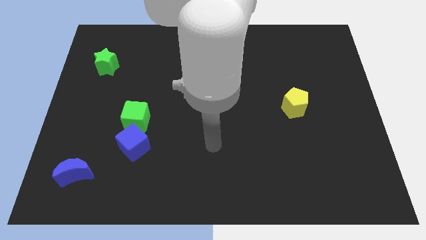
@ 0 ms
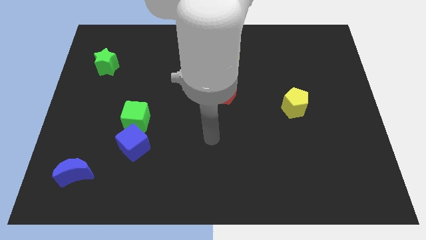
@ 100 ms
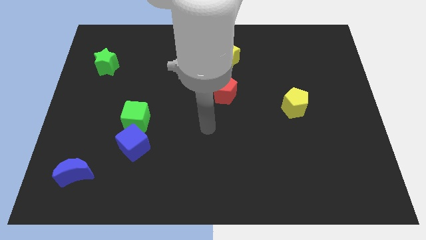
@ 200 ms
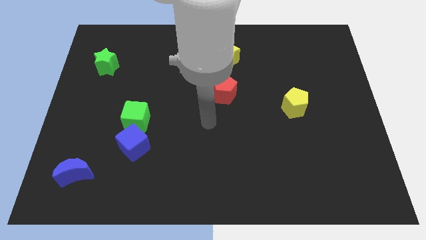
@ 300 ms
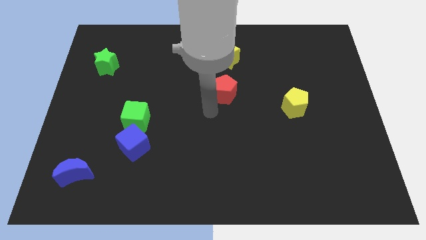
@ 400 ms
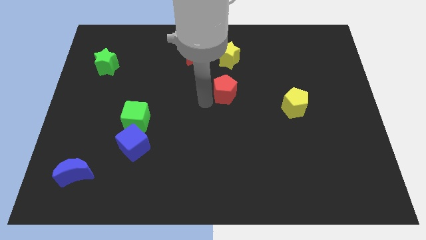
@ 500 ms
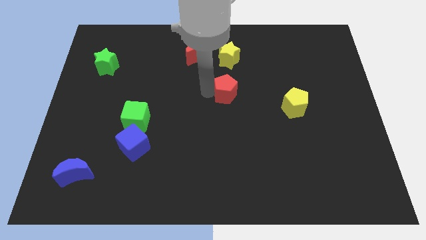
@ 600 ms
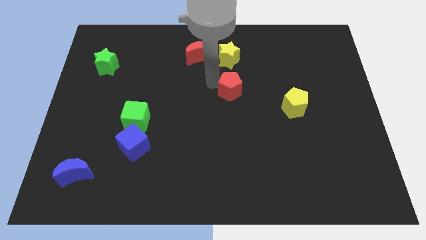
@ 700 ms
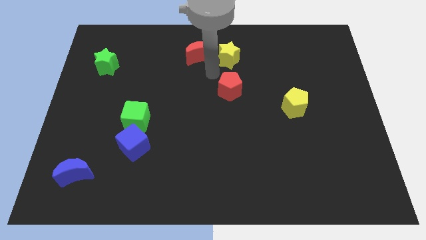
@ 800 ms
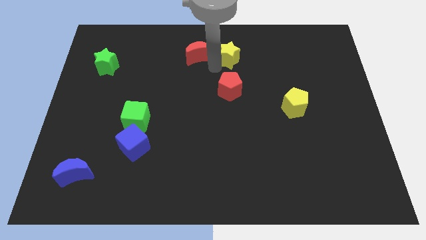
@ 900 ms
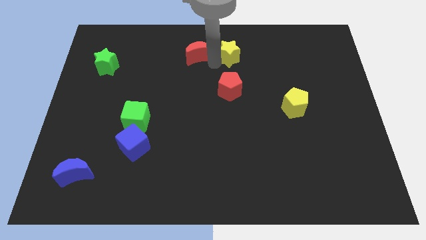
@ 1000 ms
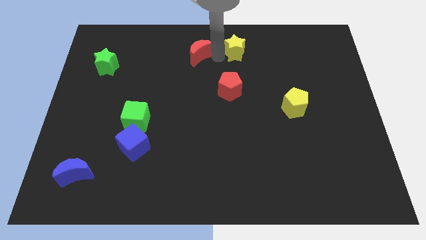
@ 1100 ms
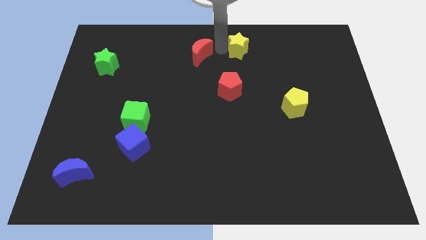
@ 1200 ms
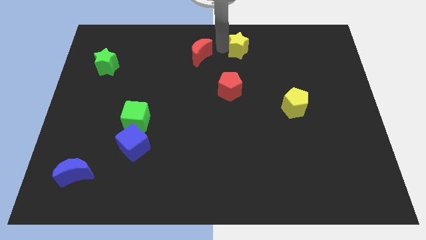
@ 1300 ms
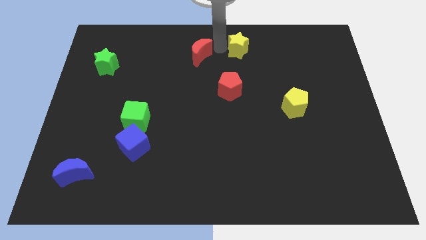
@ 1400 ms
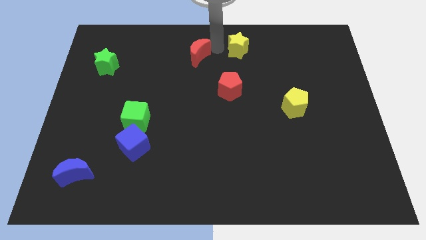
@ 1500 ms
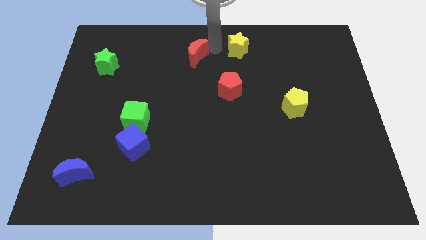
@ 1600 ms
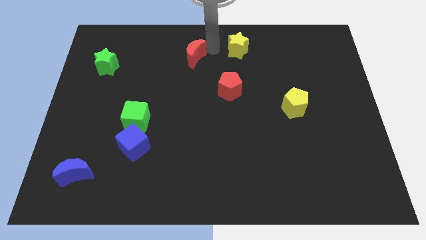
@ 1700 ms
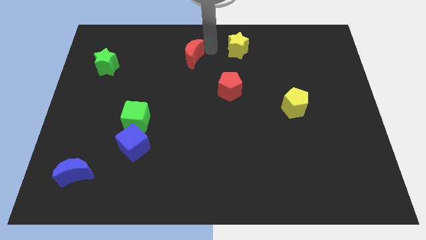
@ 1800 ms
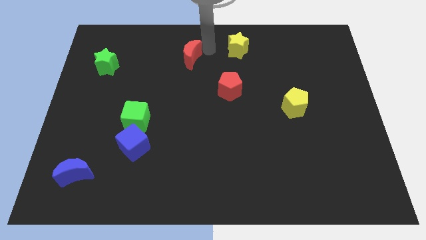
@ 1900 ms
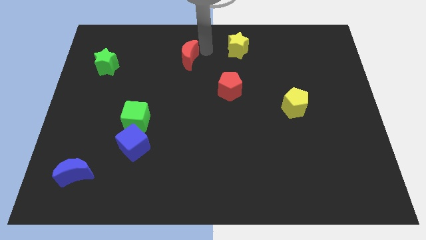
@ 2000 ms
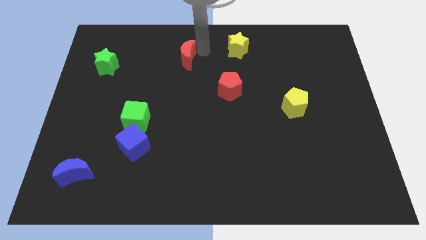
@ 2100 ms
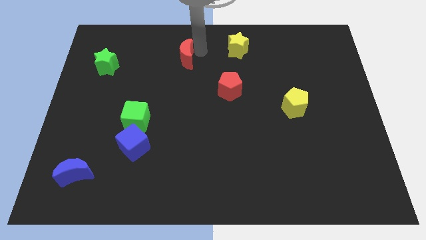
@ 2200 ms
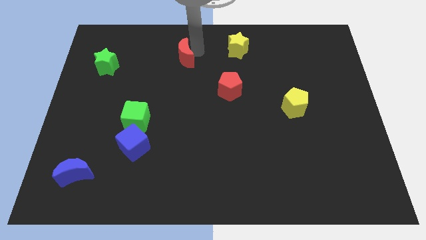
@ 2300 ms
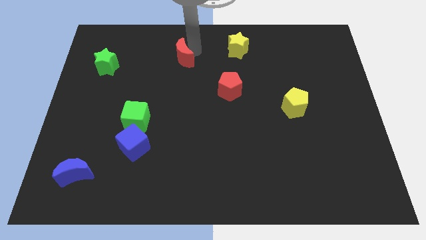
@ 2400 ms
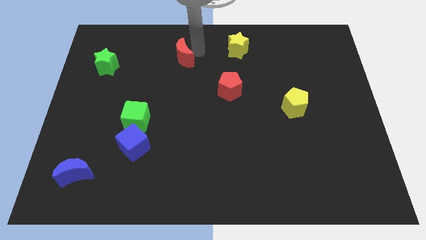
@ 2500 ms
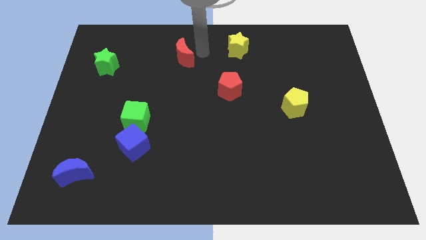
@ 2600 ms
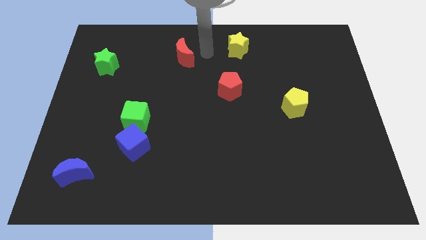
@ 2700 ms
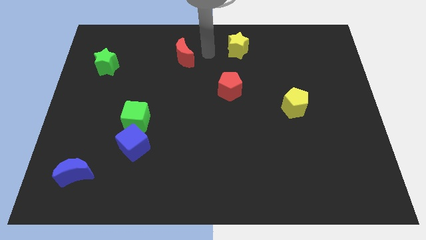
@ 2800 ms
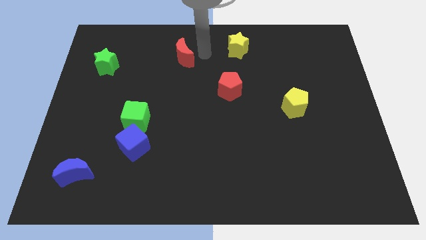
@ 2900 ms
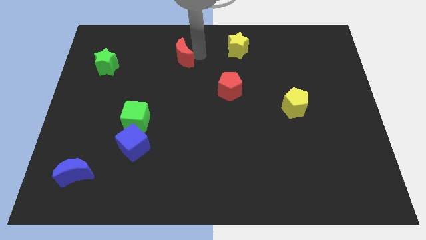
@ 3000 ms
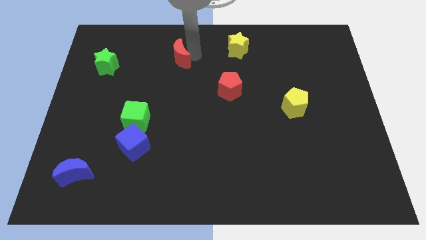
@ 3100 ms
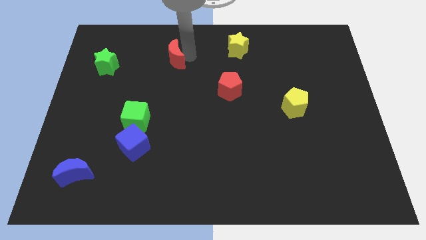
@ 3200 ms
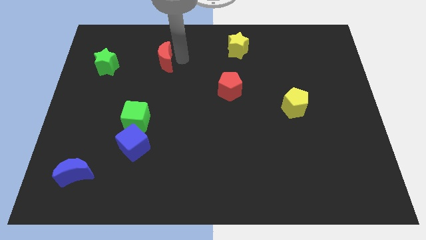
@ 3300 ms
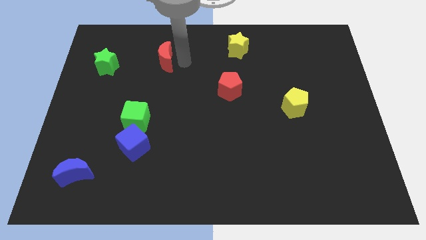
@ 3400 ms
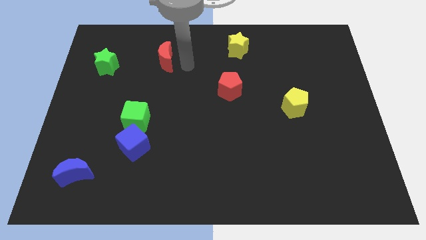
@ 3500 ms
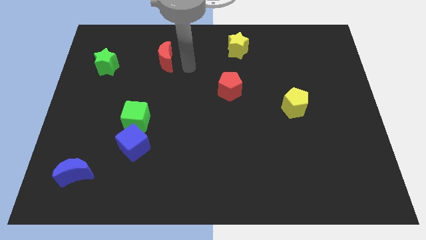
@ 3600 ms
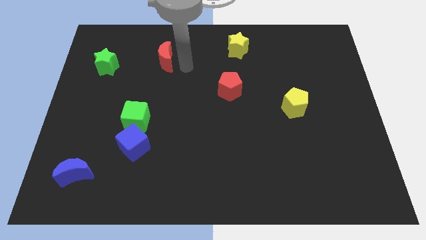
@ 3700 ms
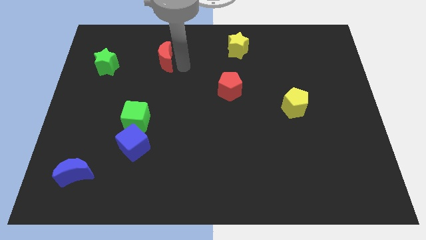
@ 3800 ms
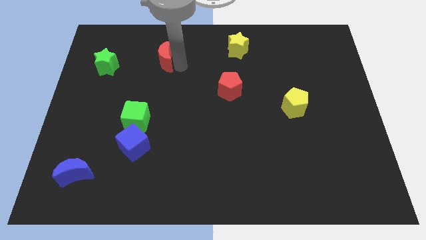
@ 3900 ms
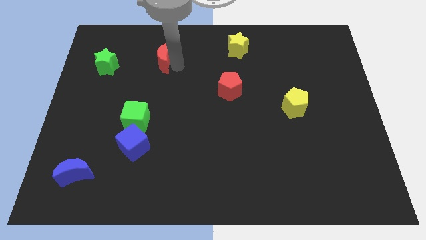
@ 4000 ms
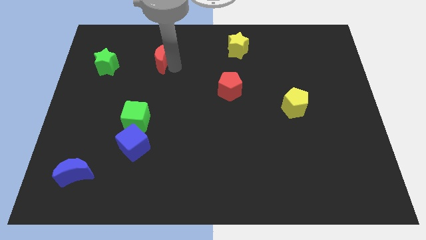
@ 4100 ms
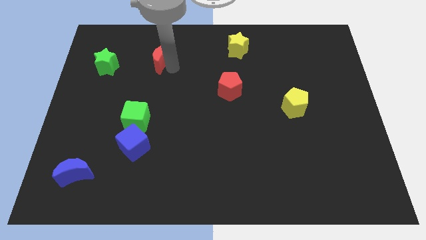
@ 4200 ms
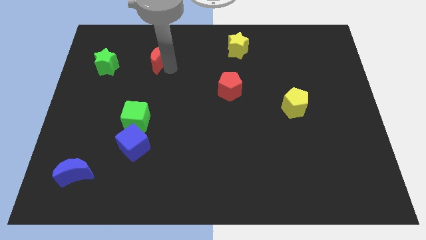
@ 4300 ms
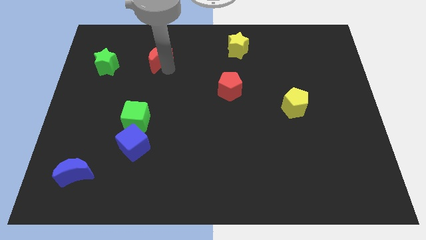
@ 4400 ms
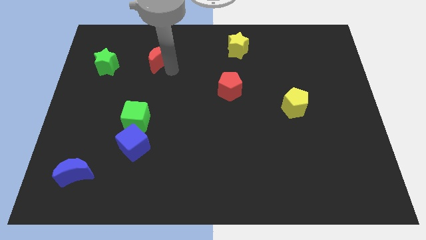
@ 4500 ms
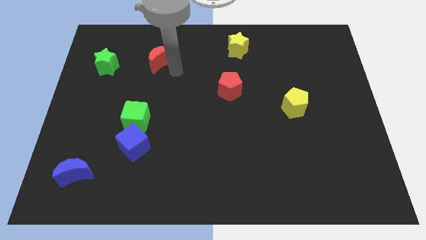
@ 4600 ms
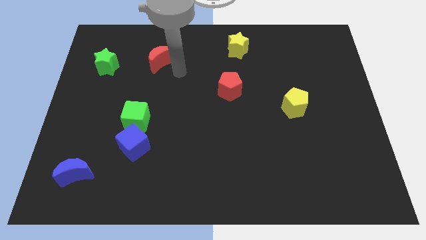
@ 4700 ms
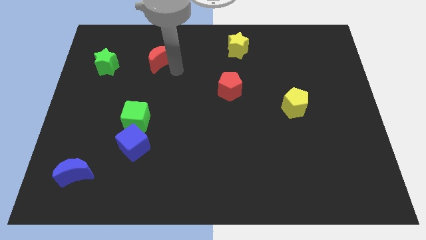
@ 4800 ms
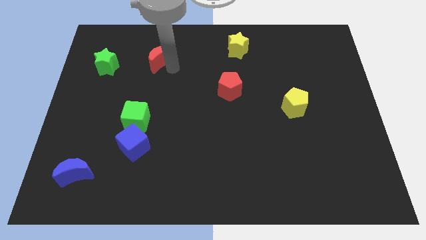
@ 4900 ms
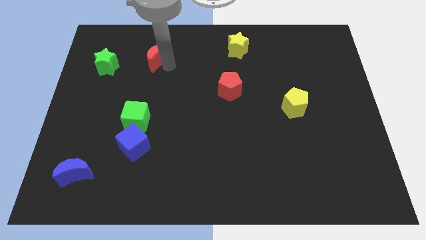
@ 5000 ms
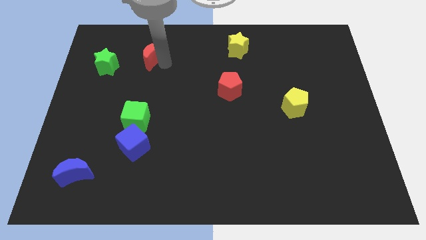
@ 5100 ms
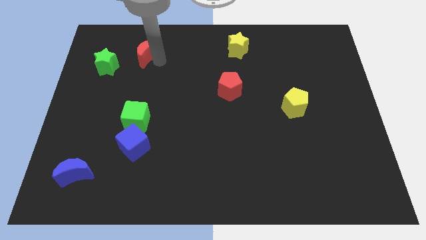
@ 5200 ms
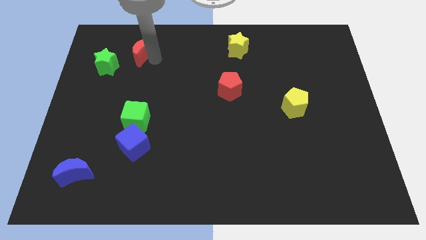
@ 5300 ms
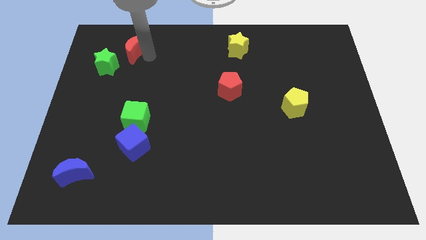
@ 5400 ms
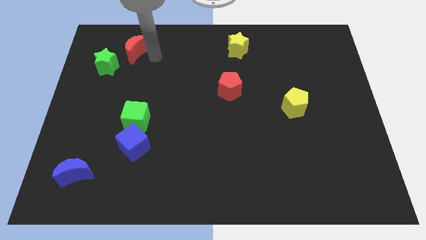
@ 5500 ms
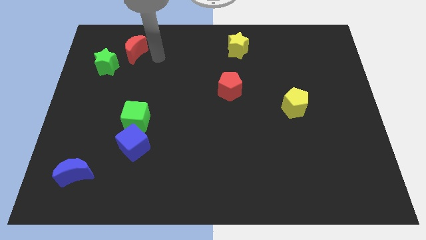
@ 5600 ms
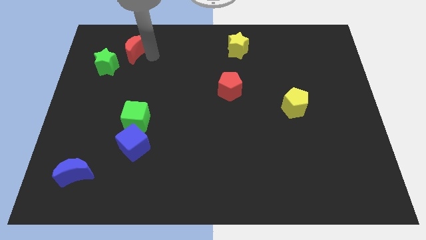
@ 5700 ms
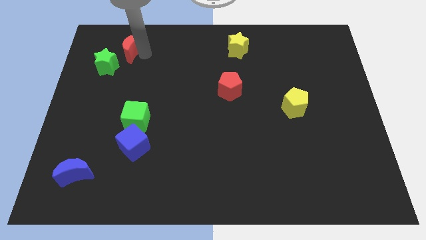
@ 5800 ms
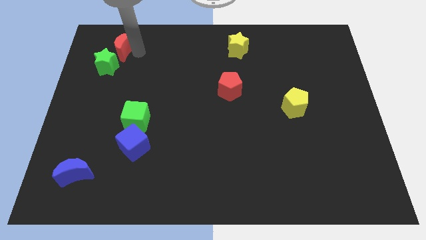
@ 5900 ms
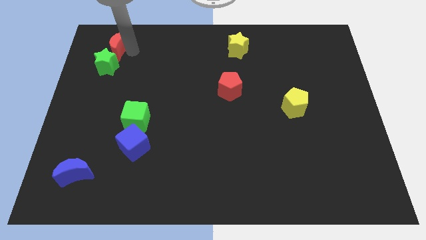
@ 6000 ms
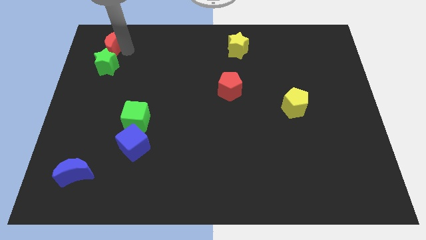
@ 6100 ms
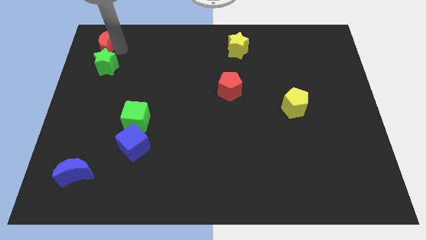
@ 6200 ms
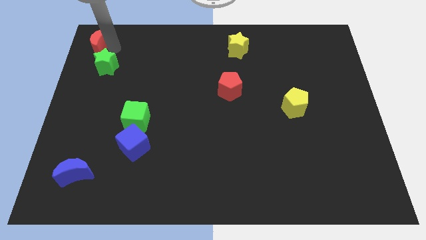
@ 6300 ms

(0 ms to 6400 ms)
push the red moon to the top left of the board

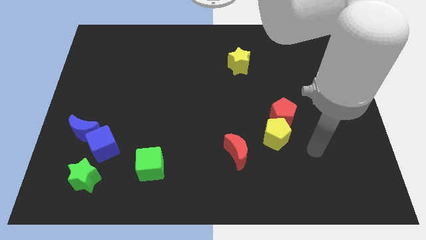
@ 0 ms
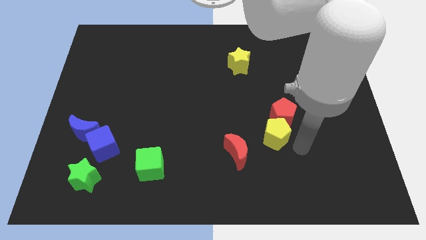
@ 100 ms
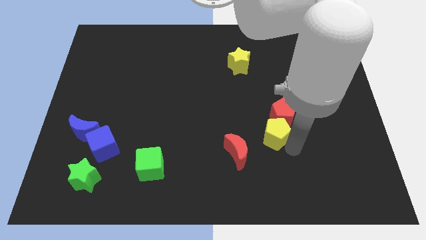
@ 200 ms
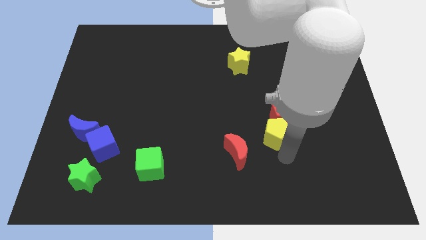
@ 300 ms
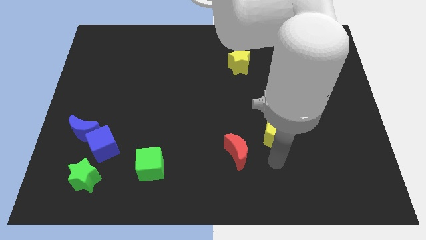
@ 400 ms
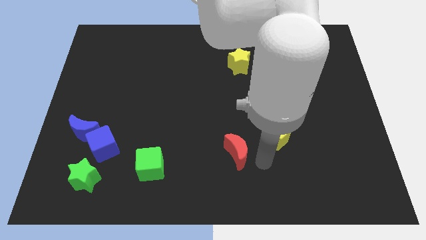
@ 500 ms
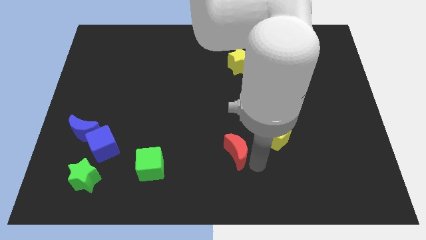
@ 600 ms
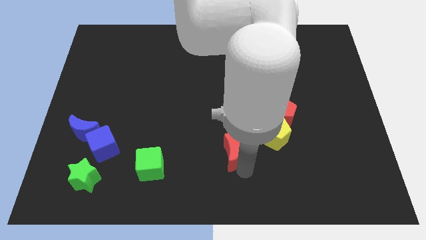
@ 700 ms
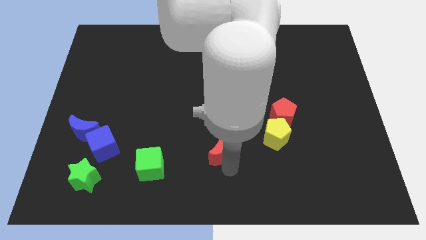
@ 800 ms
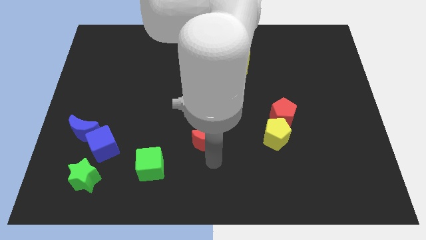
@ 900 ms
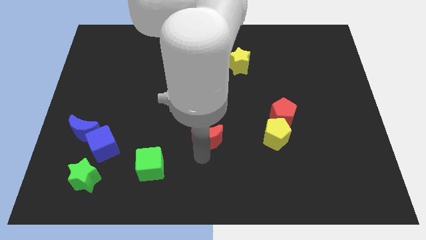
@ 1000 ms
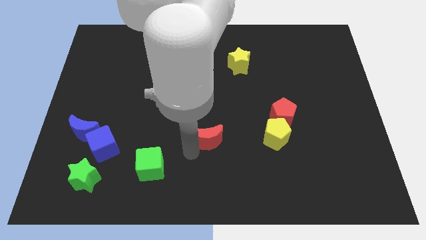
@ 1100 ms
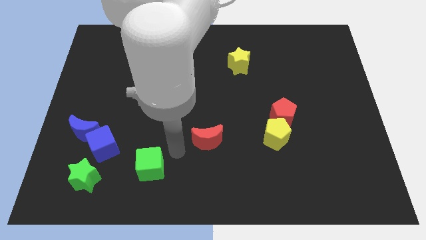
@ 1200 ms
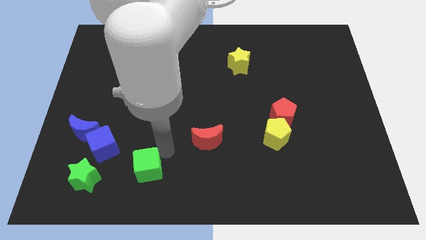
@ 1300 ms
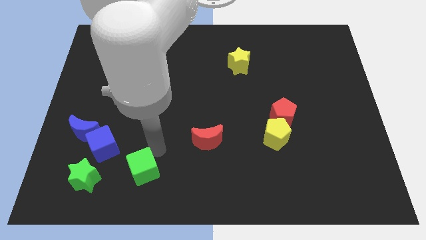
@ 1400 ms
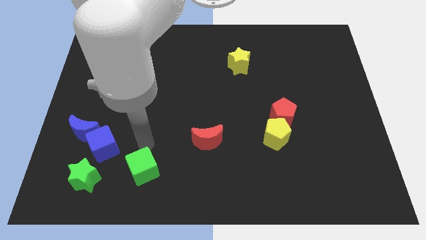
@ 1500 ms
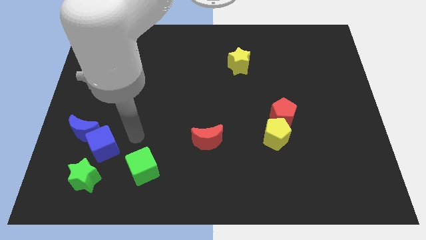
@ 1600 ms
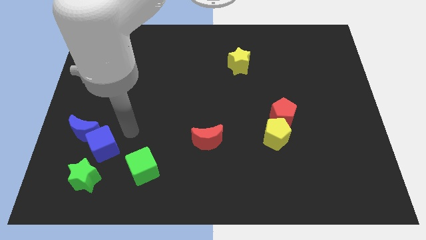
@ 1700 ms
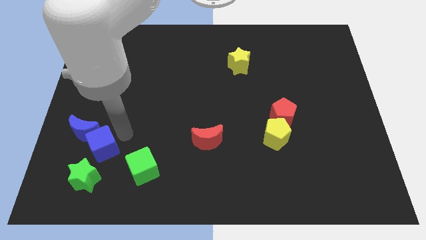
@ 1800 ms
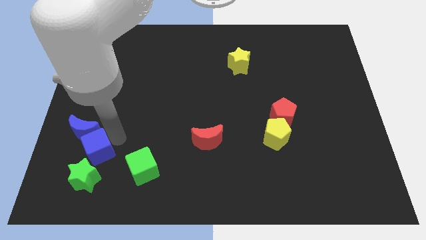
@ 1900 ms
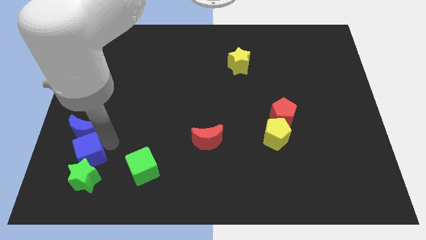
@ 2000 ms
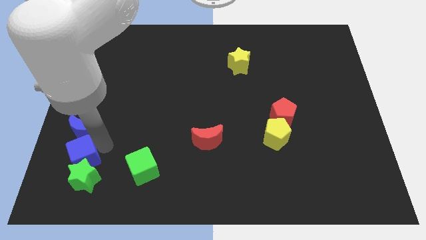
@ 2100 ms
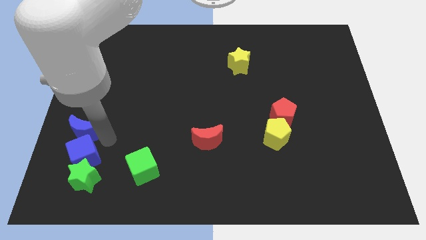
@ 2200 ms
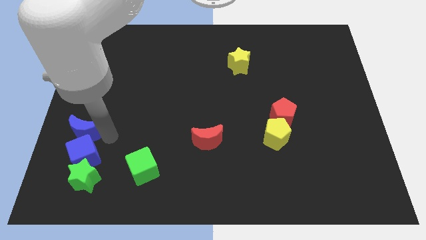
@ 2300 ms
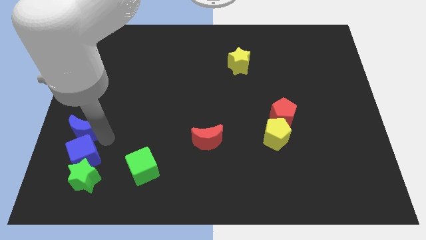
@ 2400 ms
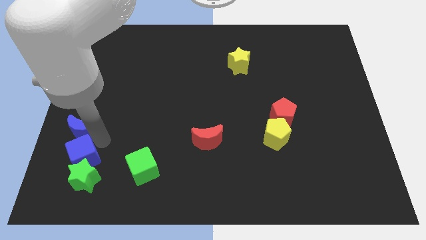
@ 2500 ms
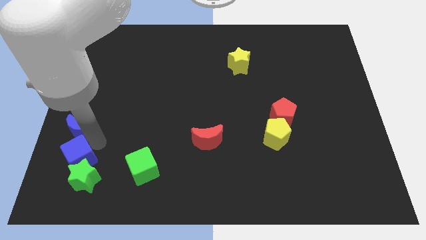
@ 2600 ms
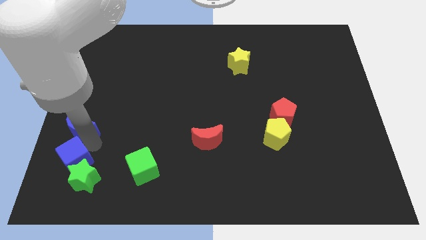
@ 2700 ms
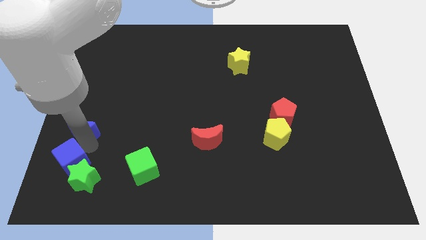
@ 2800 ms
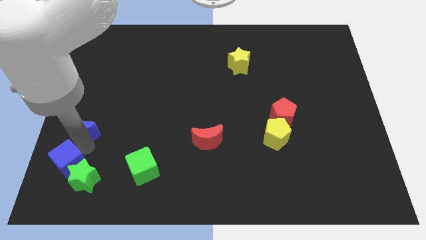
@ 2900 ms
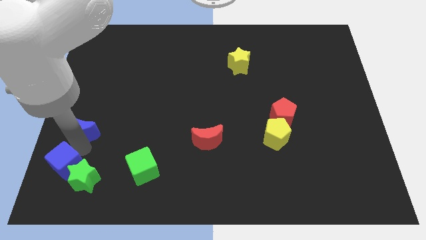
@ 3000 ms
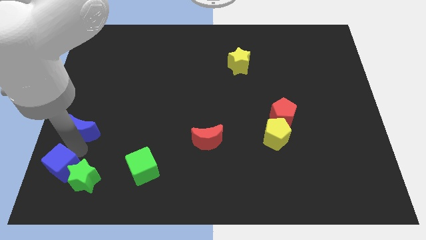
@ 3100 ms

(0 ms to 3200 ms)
push the blue cube to the lower left corner
